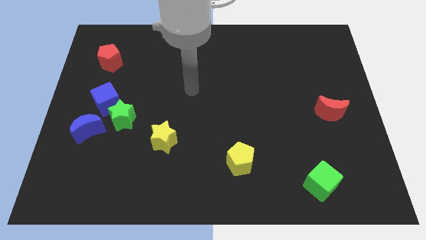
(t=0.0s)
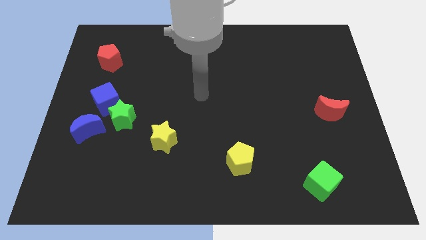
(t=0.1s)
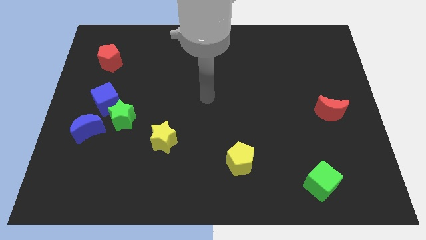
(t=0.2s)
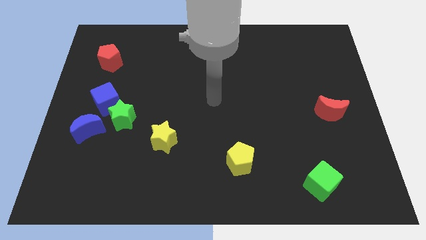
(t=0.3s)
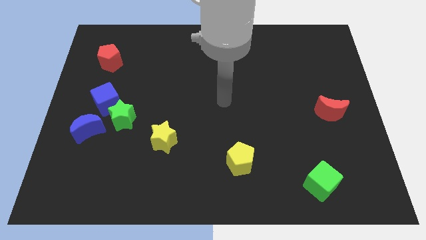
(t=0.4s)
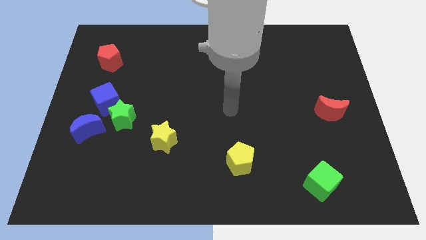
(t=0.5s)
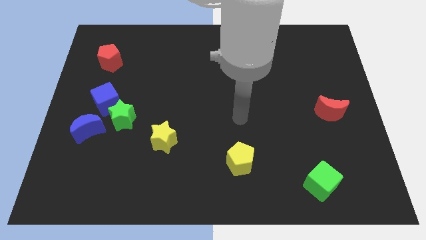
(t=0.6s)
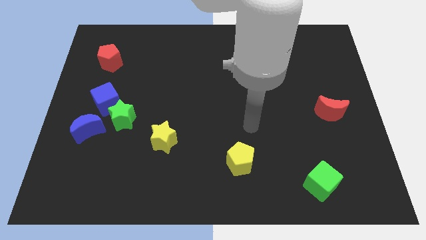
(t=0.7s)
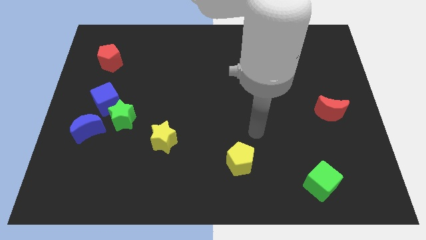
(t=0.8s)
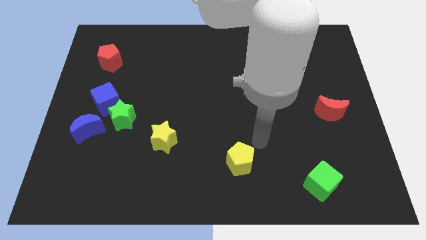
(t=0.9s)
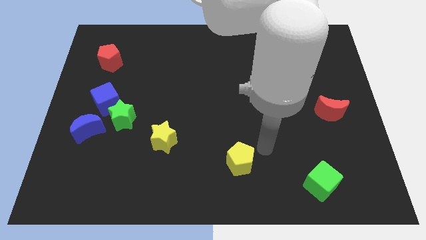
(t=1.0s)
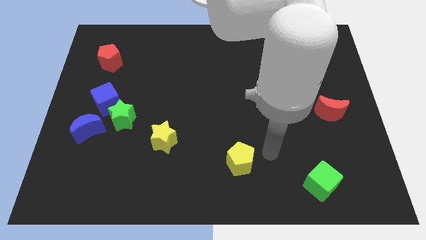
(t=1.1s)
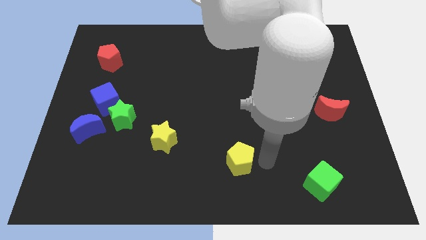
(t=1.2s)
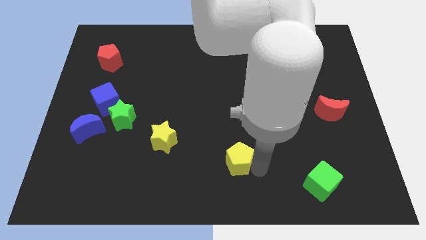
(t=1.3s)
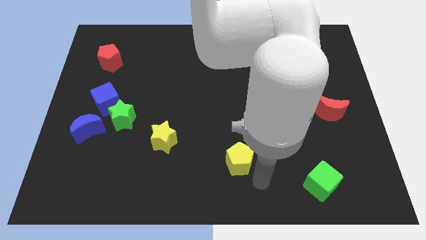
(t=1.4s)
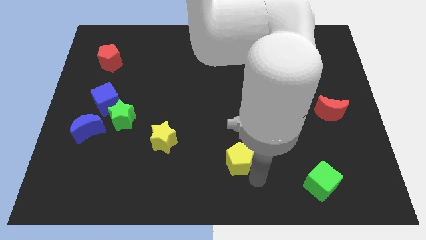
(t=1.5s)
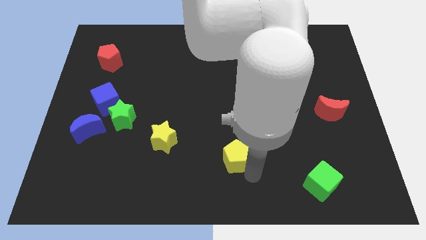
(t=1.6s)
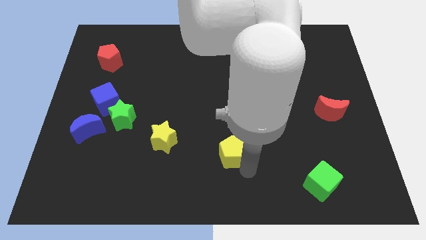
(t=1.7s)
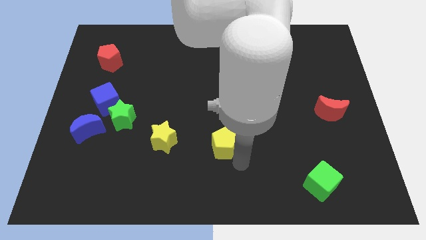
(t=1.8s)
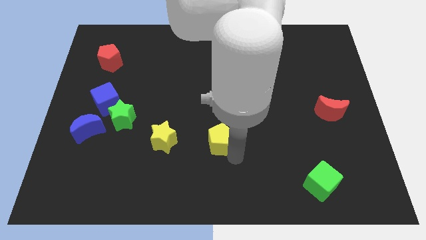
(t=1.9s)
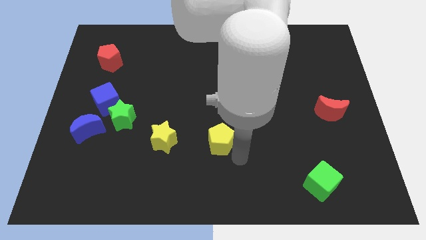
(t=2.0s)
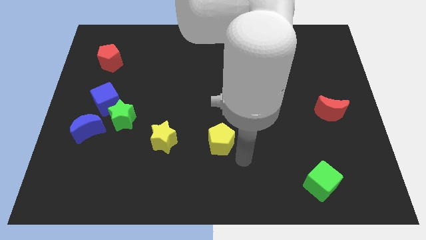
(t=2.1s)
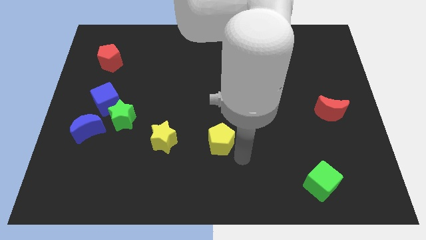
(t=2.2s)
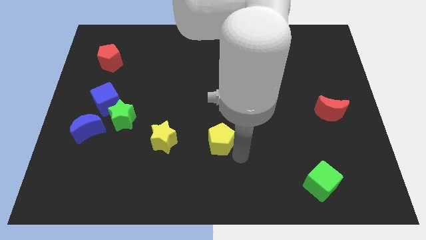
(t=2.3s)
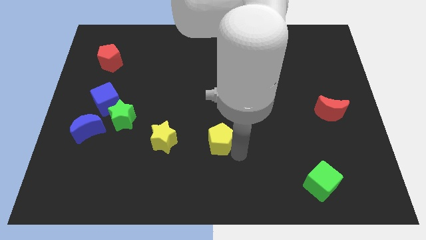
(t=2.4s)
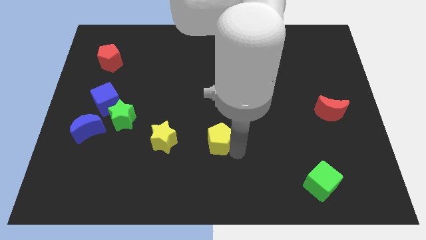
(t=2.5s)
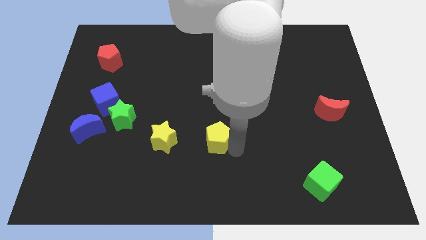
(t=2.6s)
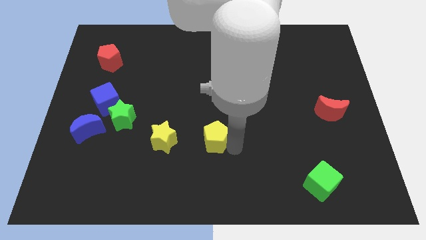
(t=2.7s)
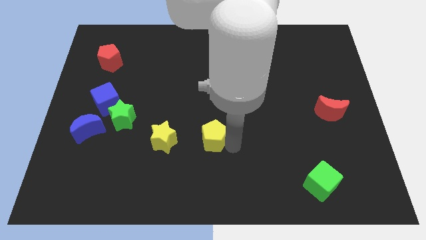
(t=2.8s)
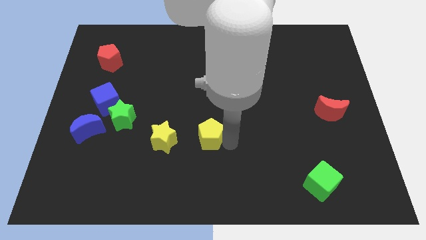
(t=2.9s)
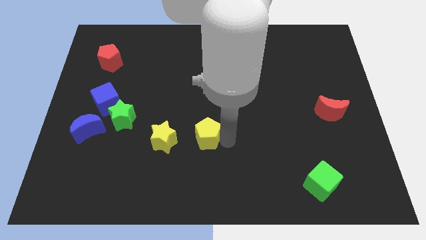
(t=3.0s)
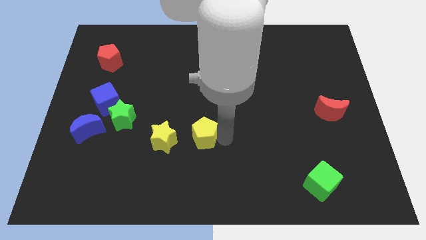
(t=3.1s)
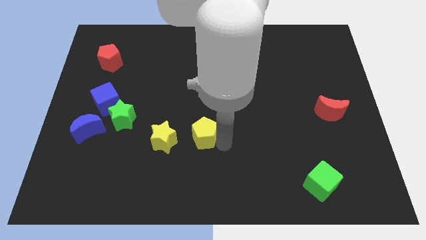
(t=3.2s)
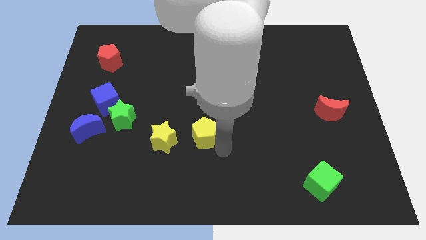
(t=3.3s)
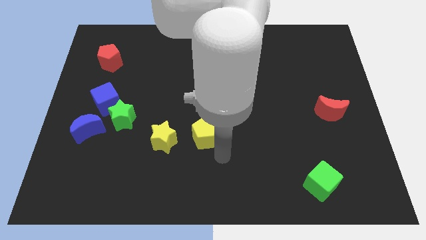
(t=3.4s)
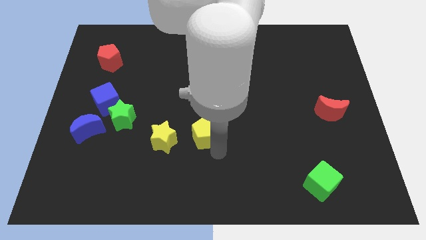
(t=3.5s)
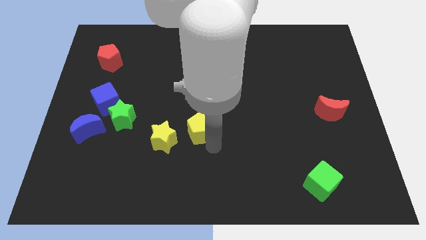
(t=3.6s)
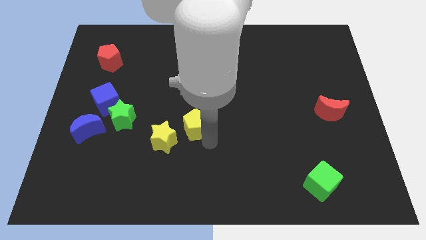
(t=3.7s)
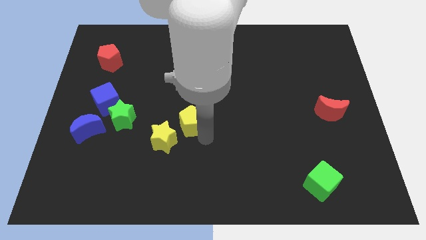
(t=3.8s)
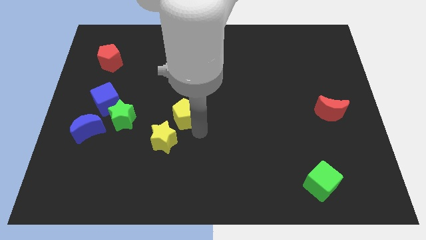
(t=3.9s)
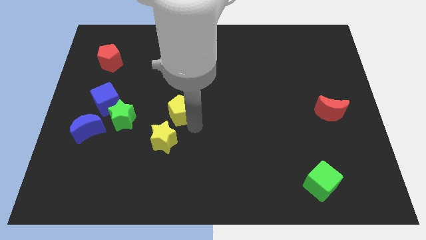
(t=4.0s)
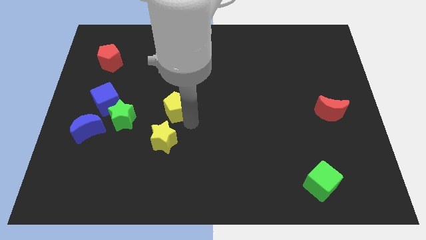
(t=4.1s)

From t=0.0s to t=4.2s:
slide the yellow pentagon diagonally up and to the left

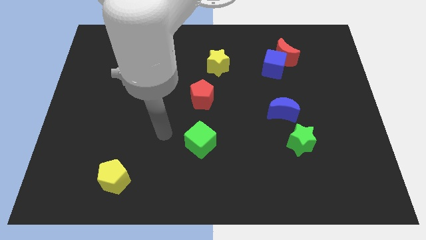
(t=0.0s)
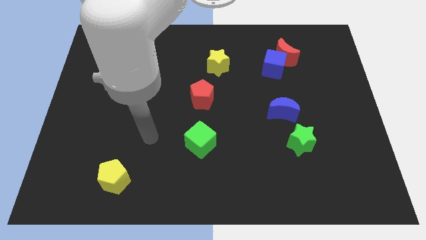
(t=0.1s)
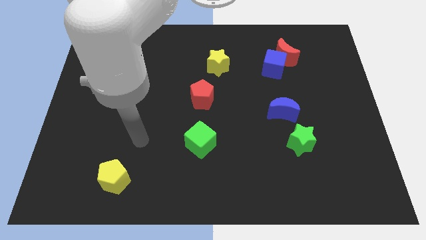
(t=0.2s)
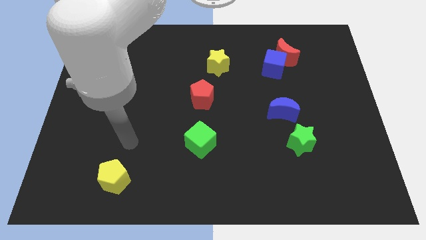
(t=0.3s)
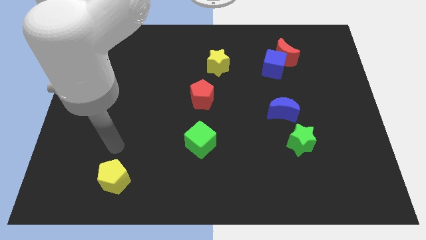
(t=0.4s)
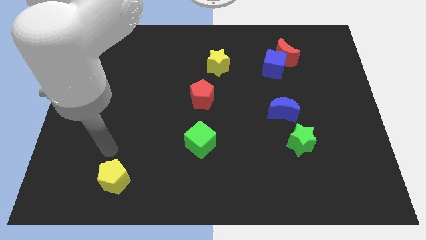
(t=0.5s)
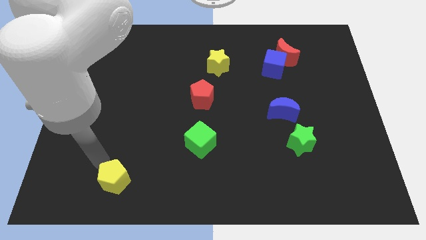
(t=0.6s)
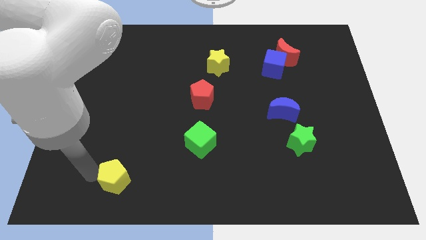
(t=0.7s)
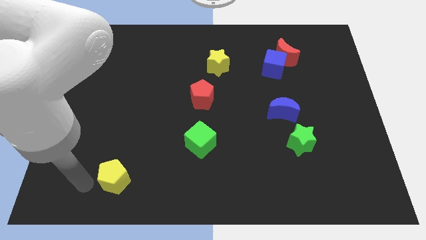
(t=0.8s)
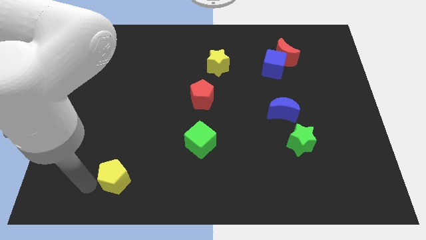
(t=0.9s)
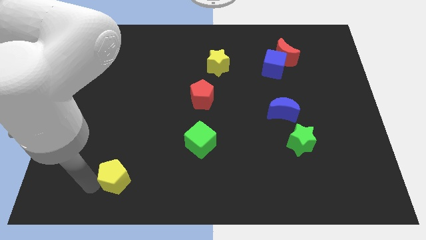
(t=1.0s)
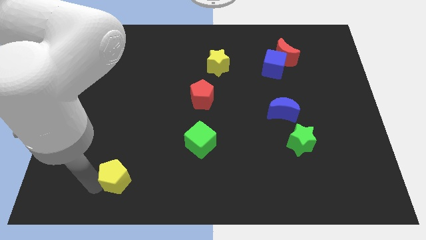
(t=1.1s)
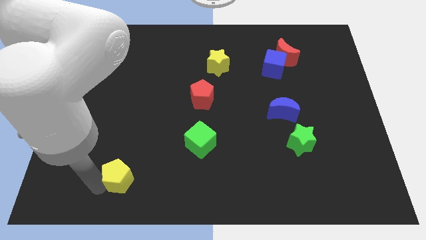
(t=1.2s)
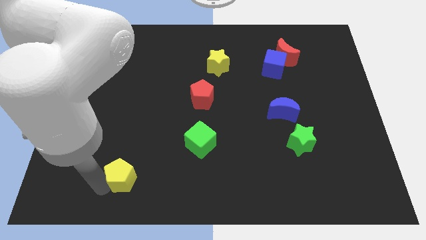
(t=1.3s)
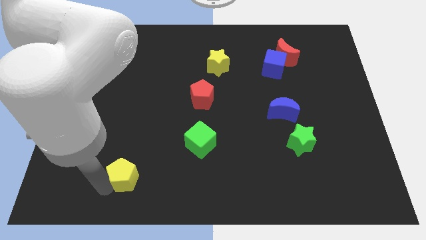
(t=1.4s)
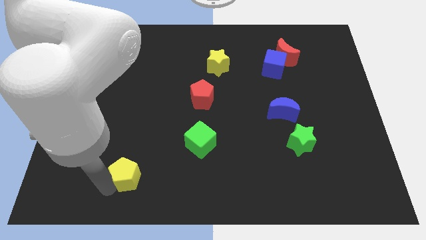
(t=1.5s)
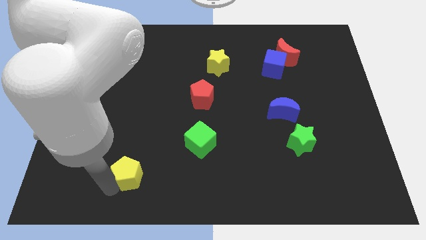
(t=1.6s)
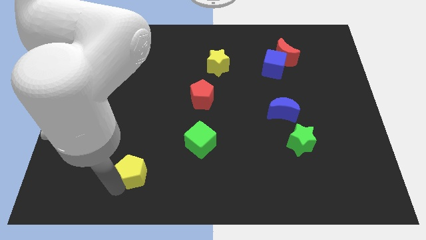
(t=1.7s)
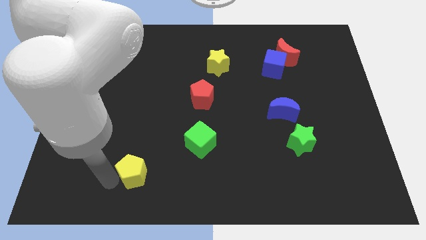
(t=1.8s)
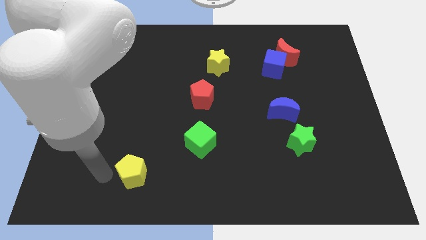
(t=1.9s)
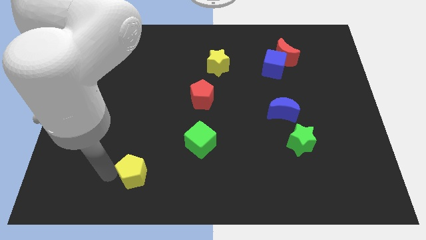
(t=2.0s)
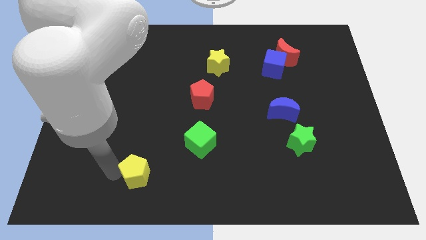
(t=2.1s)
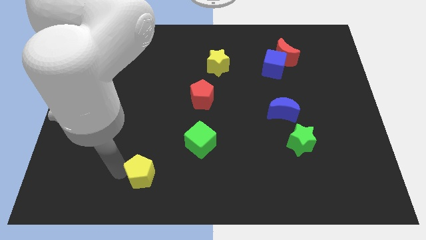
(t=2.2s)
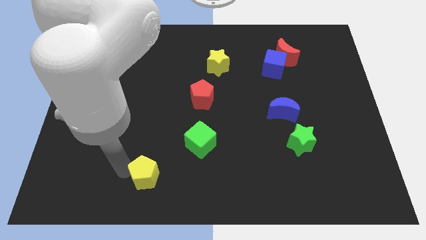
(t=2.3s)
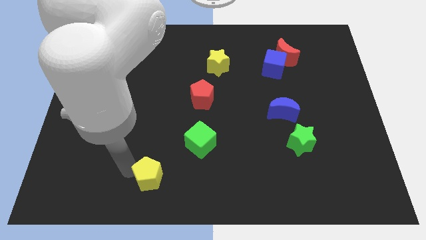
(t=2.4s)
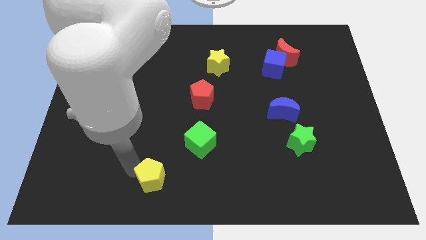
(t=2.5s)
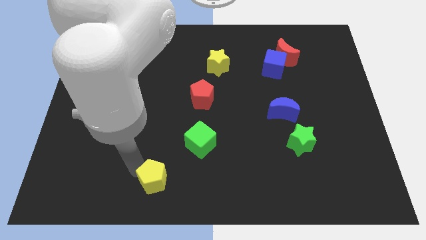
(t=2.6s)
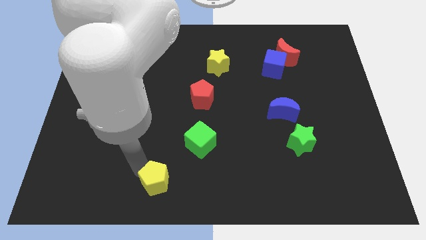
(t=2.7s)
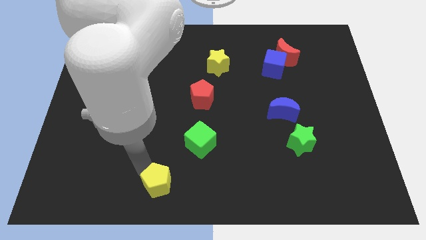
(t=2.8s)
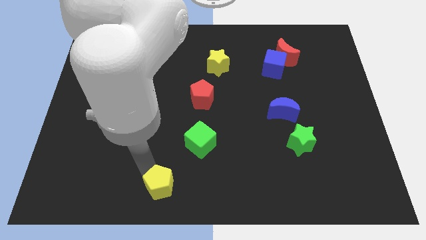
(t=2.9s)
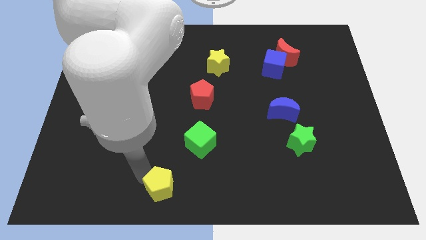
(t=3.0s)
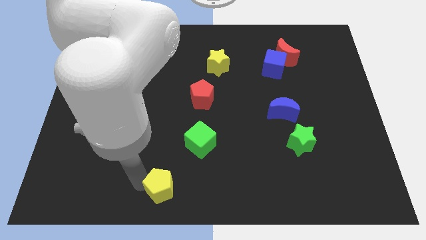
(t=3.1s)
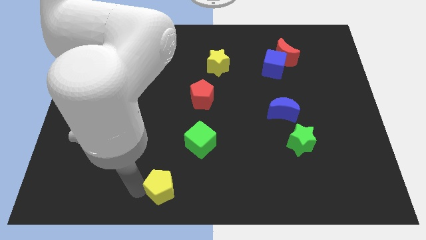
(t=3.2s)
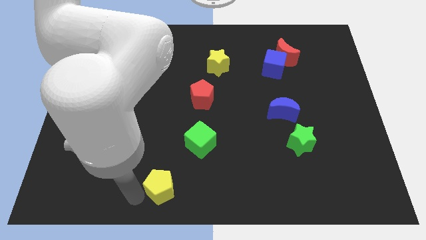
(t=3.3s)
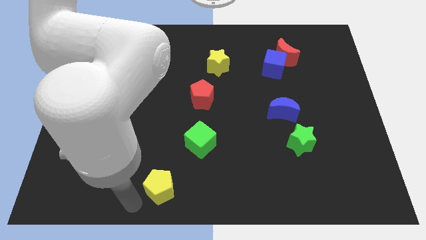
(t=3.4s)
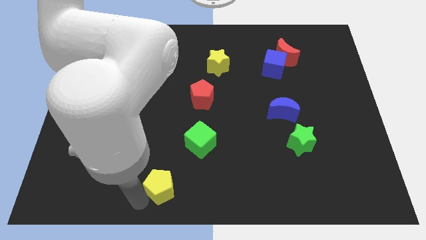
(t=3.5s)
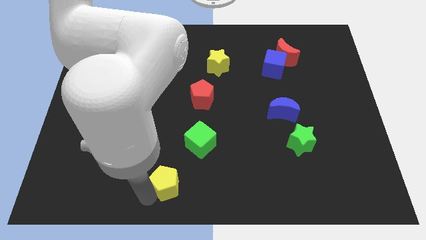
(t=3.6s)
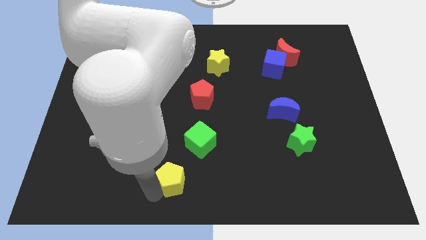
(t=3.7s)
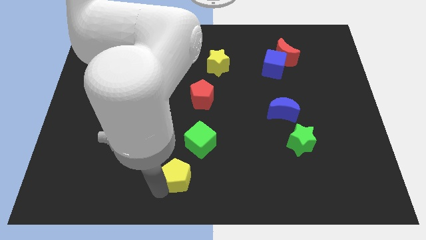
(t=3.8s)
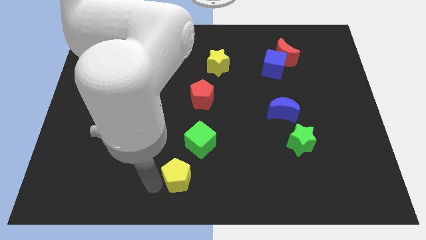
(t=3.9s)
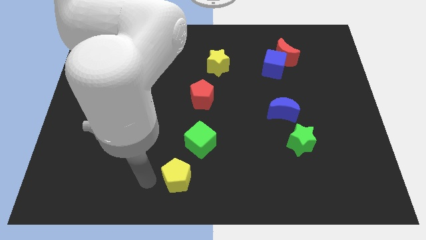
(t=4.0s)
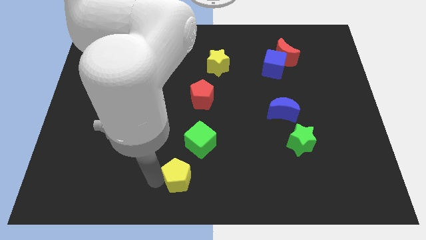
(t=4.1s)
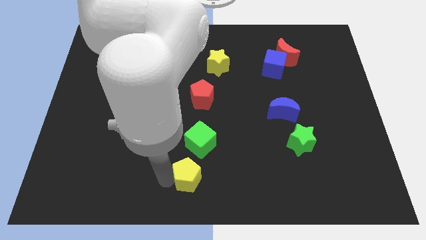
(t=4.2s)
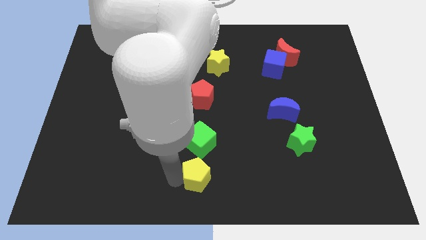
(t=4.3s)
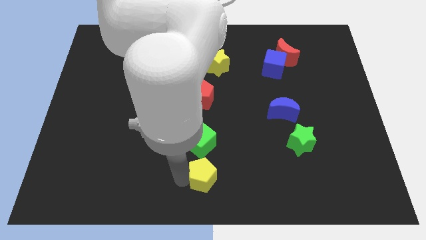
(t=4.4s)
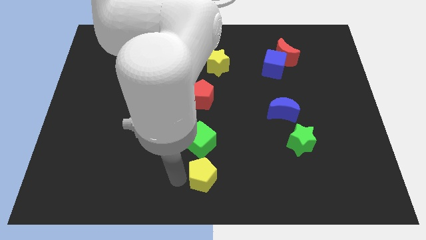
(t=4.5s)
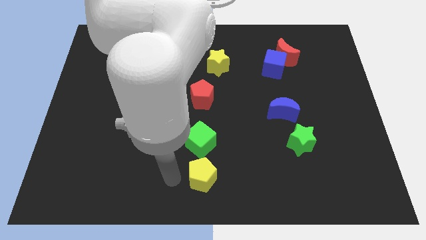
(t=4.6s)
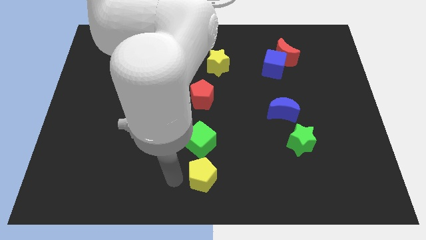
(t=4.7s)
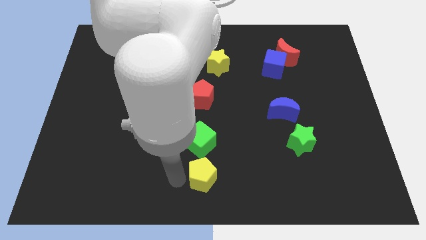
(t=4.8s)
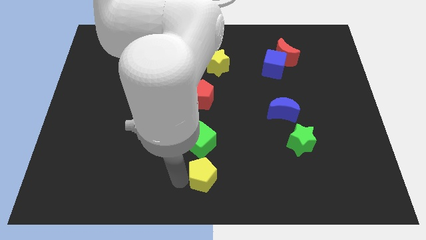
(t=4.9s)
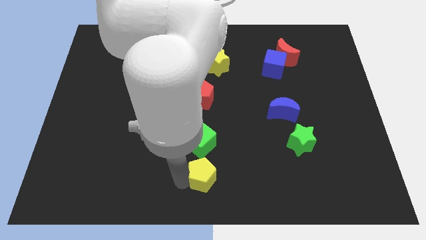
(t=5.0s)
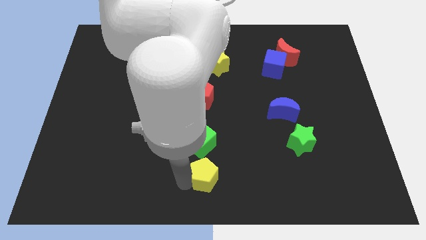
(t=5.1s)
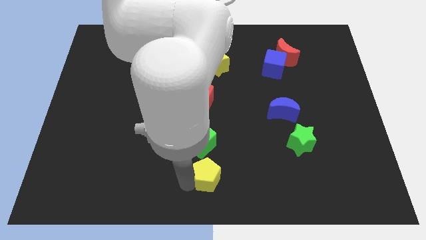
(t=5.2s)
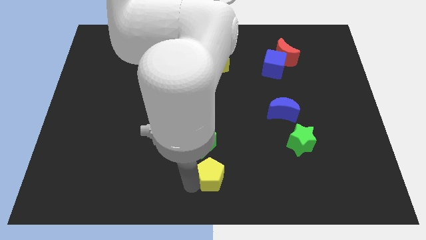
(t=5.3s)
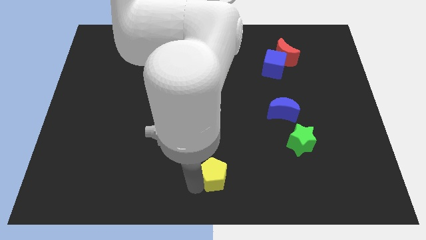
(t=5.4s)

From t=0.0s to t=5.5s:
move the yellow pentagon to the right
